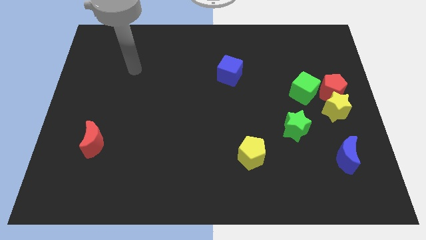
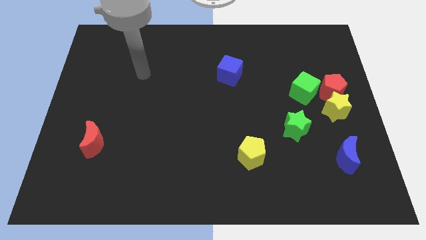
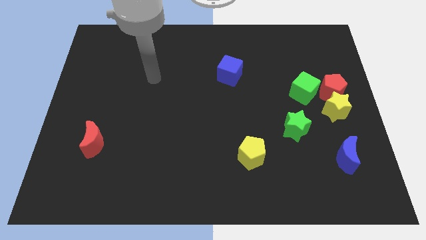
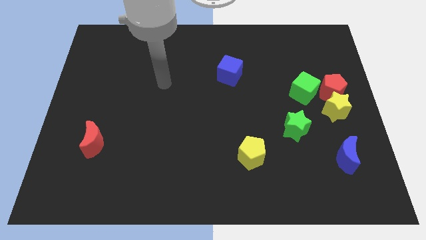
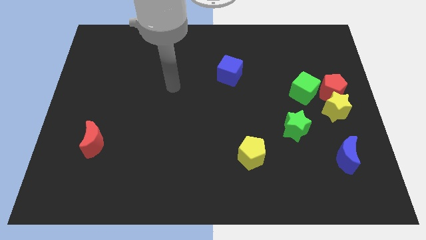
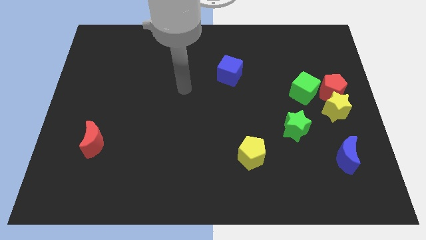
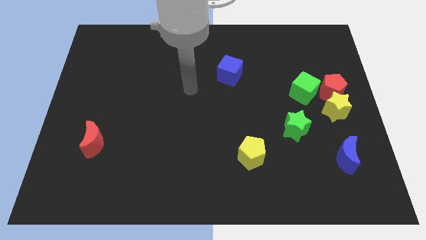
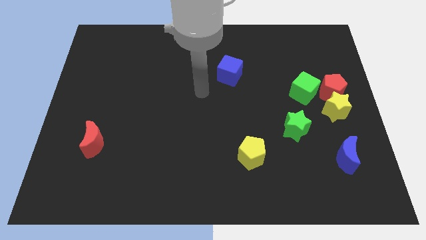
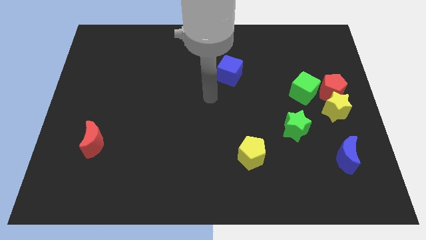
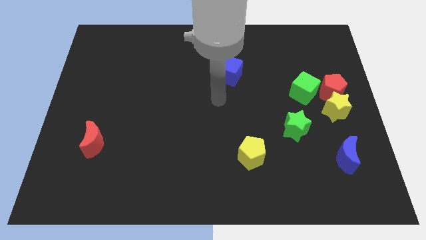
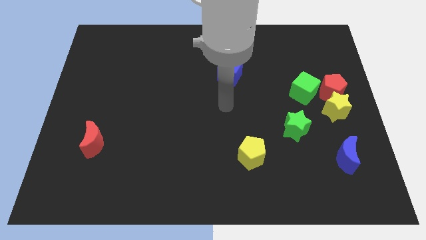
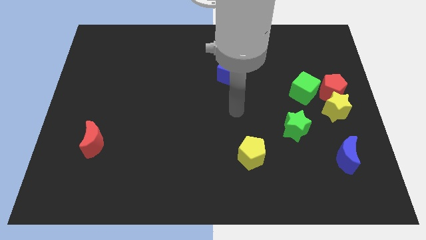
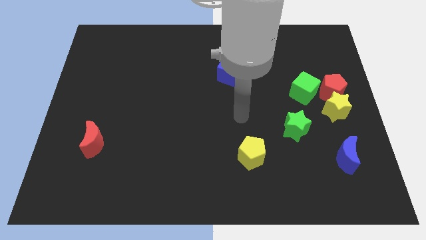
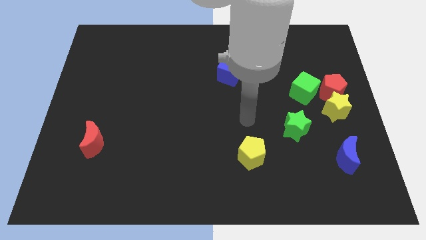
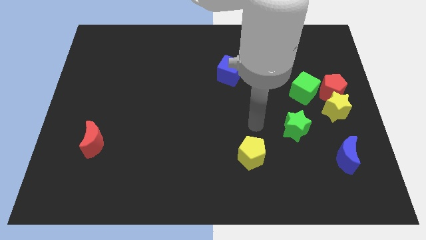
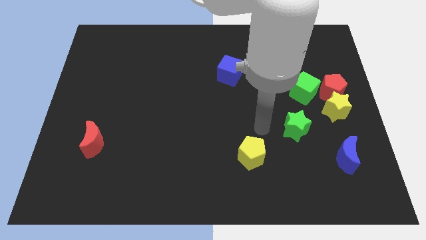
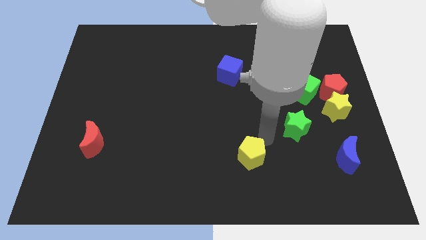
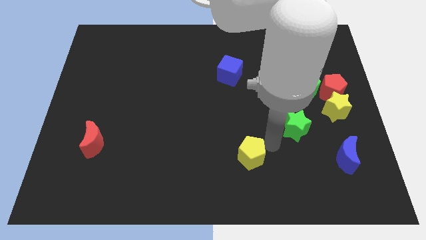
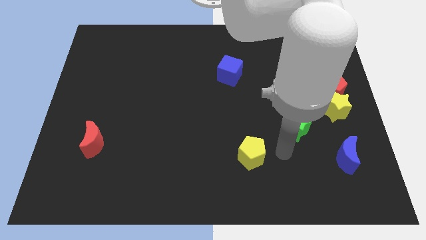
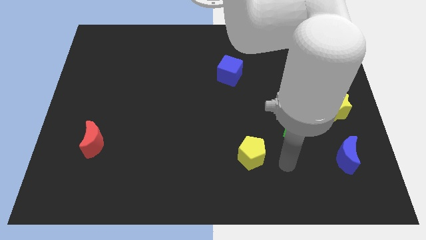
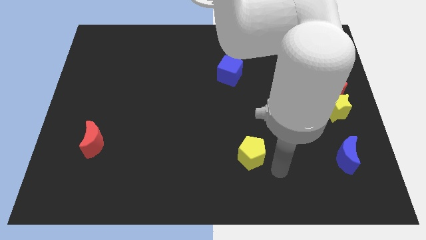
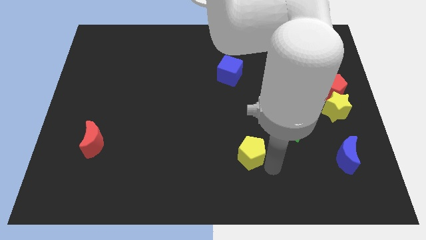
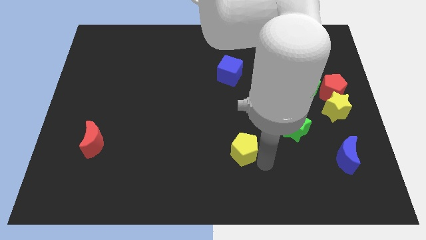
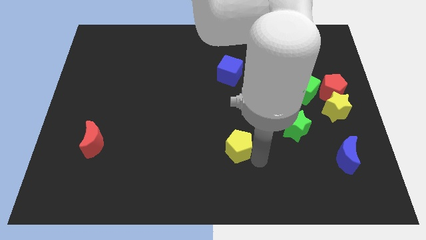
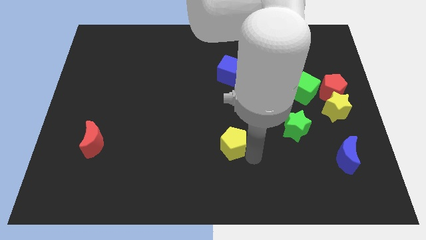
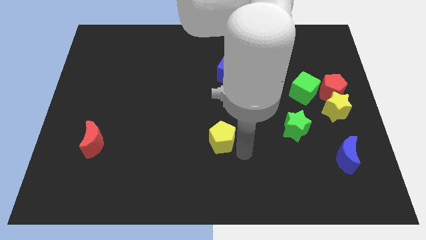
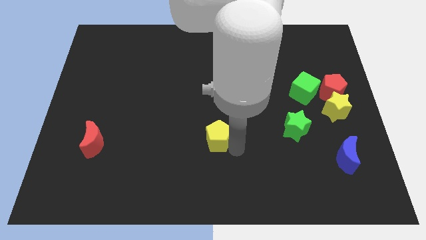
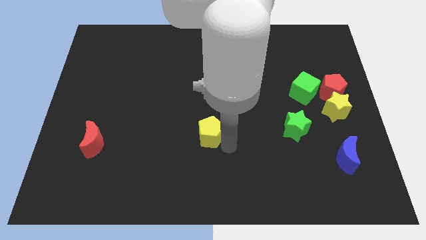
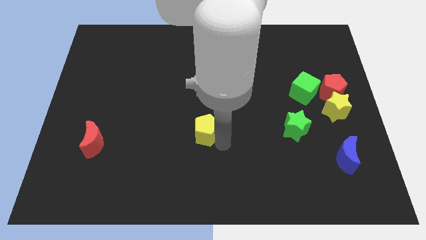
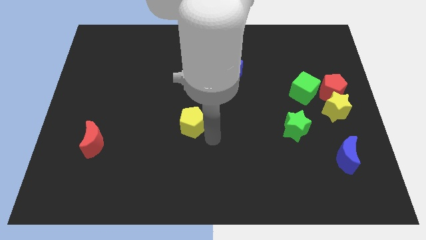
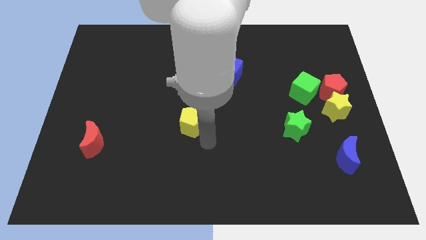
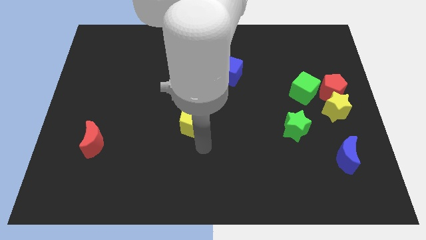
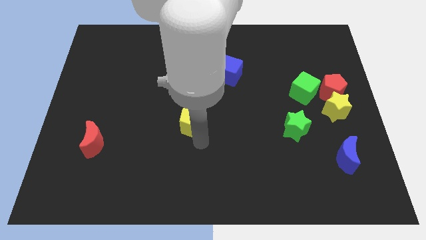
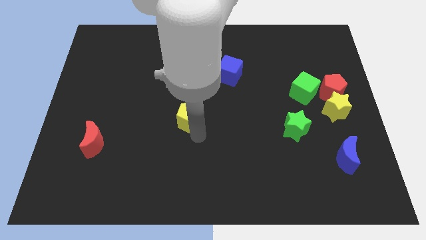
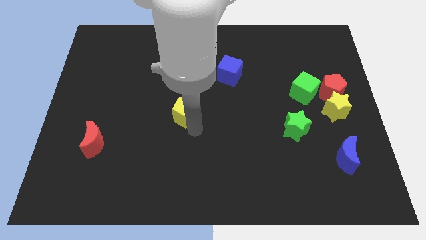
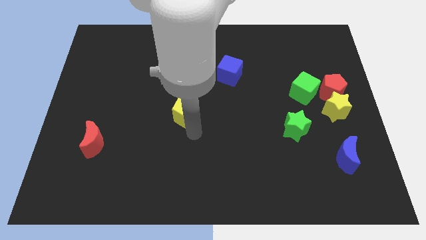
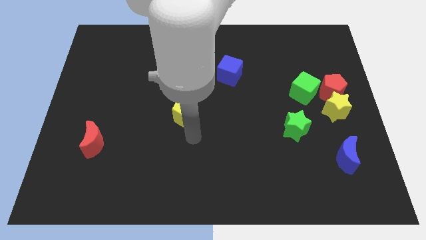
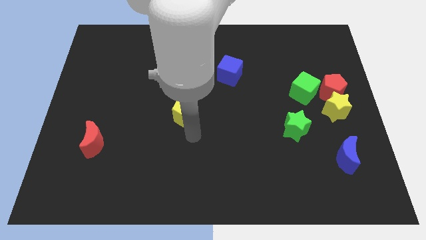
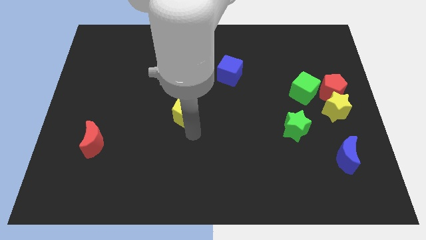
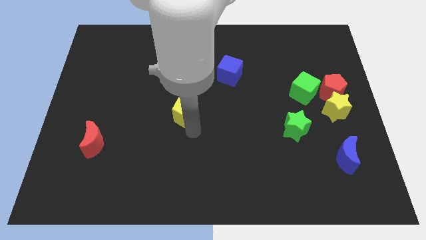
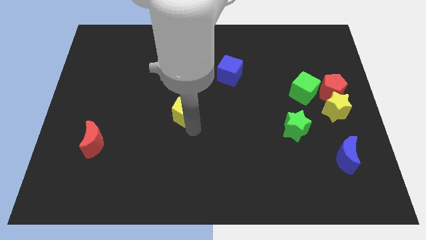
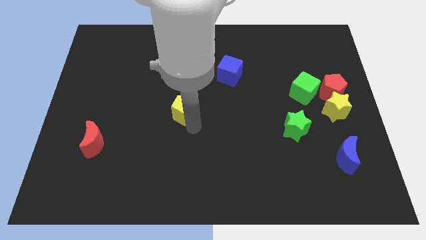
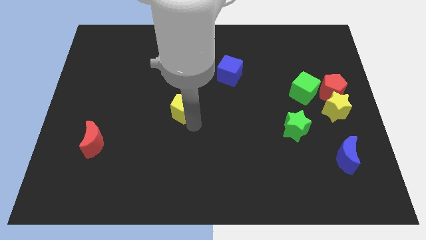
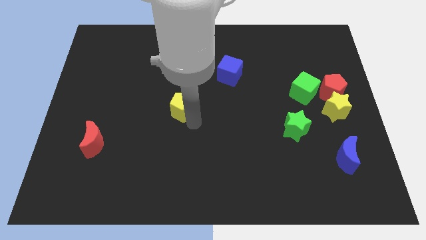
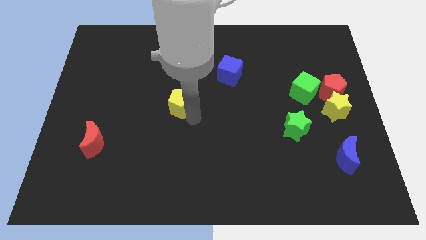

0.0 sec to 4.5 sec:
slide the yellow pentagon upwards and to the left

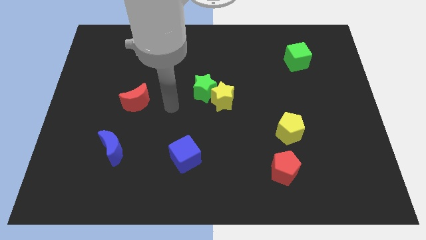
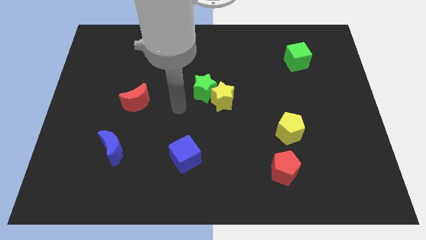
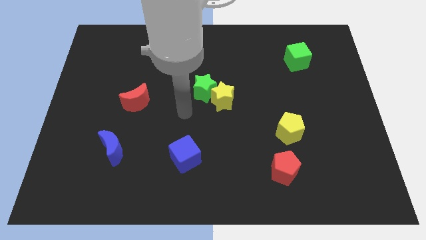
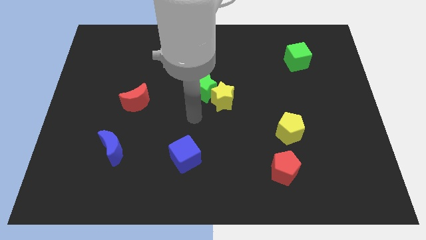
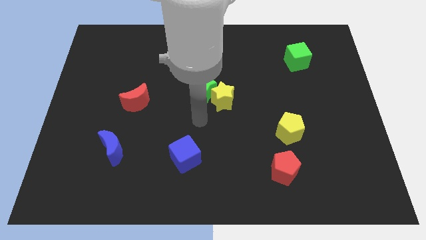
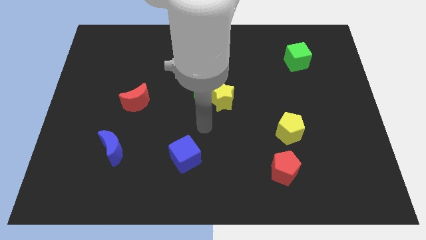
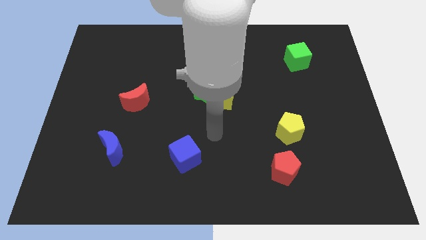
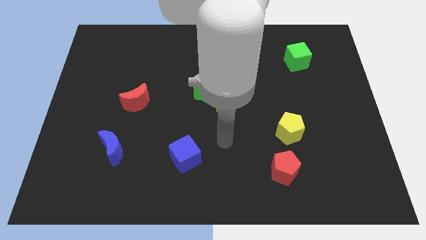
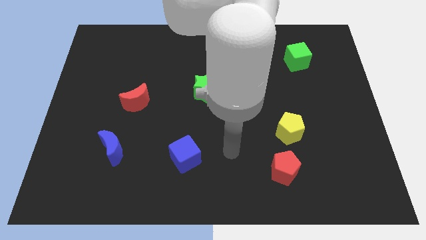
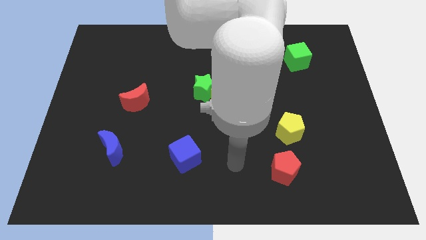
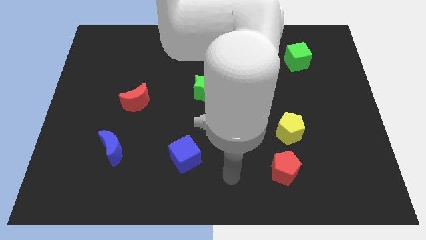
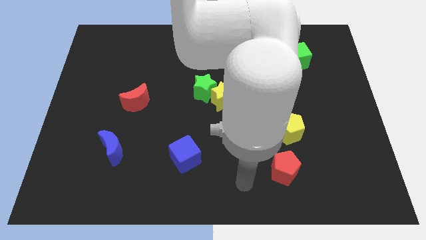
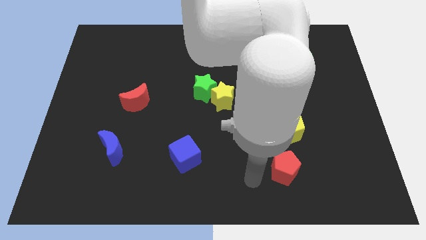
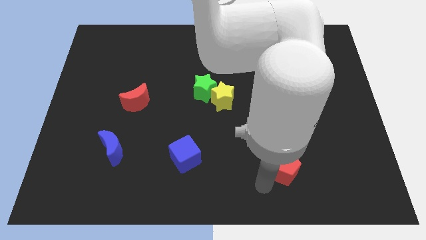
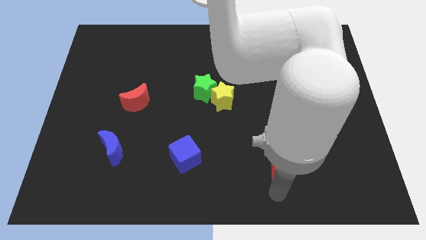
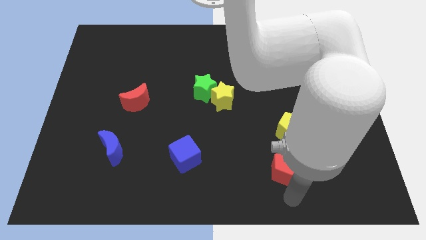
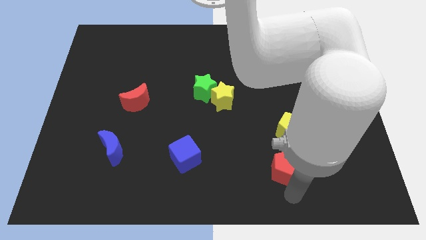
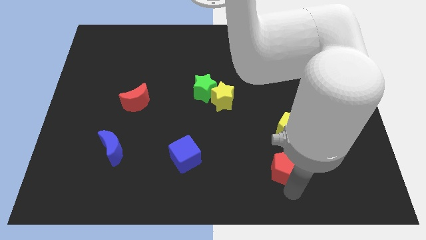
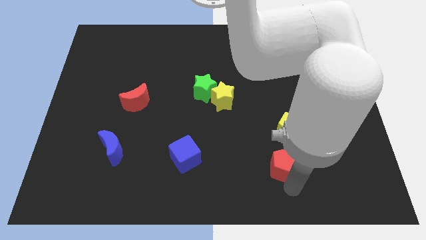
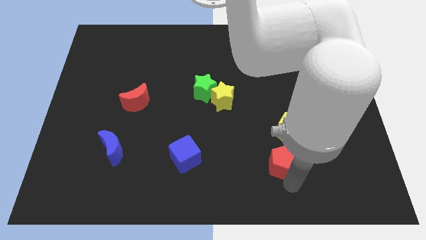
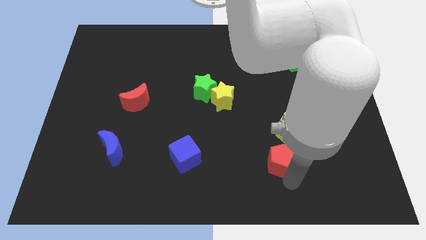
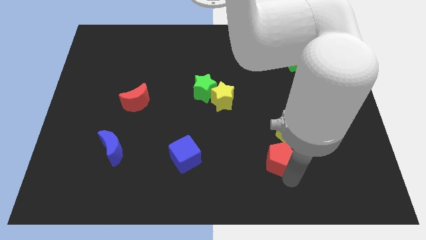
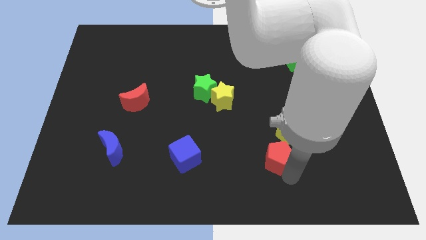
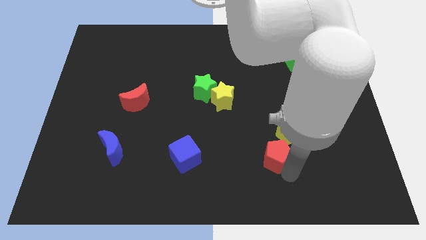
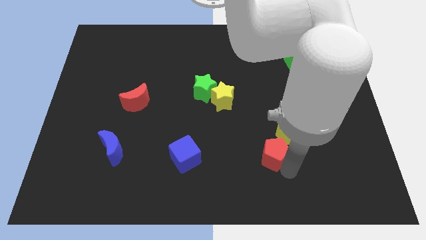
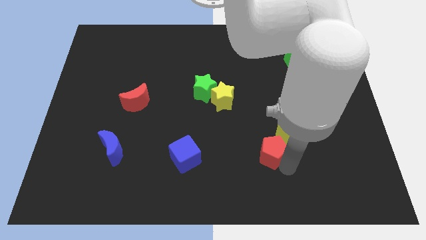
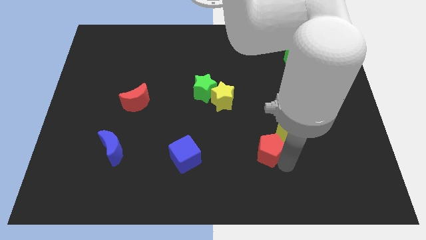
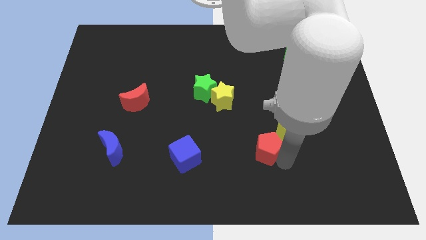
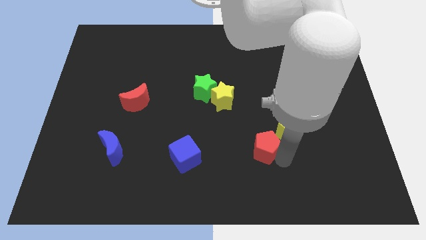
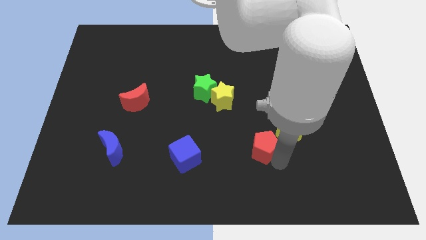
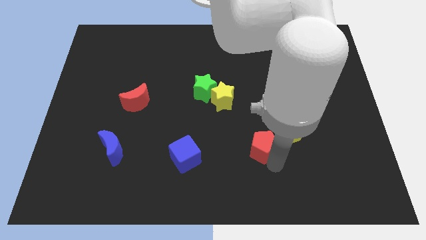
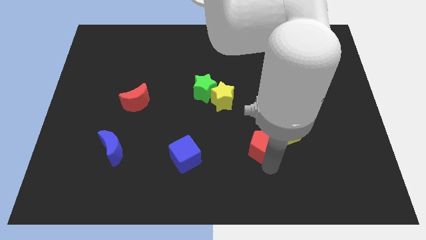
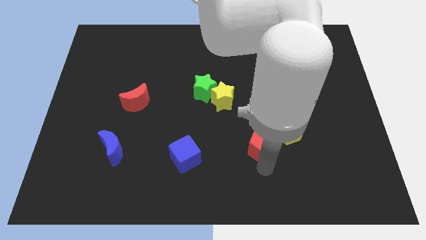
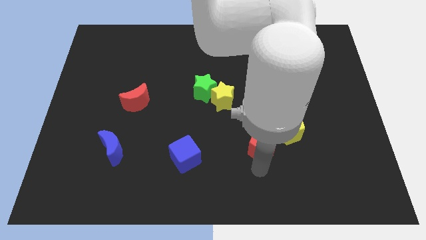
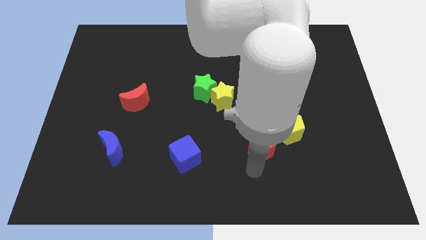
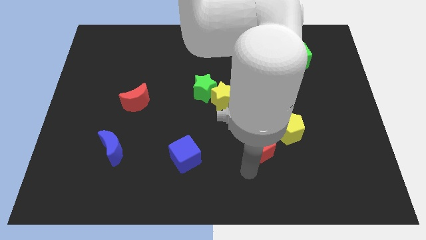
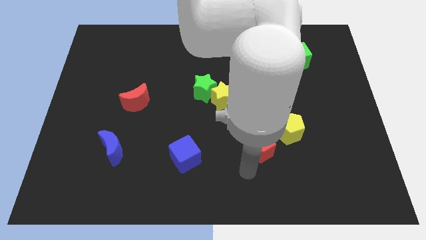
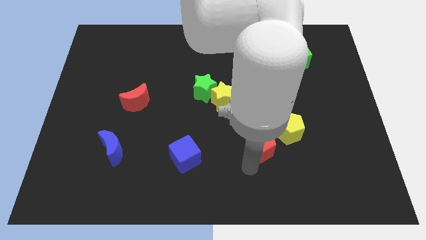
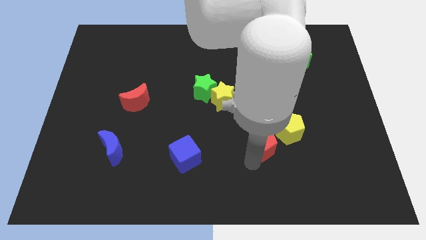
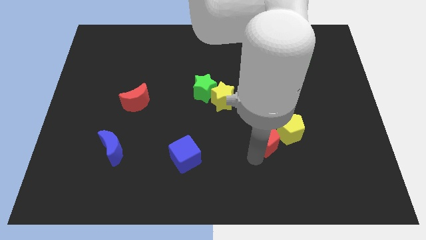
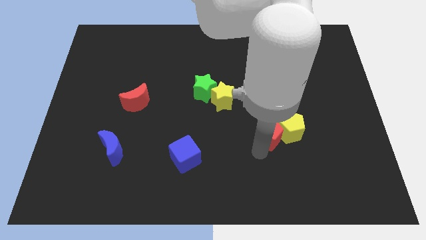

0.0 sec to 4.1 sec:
slide the red pentagon somewhat upwards

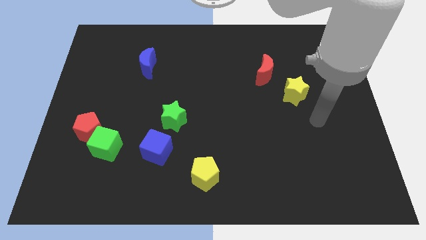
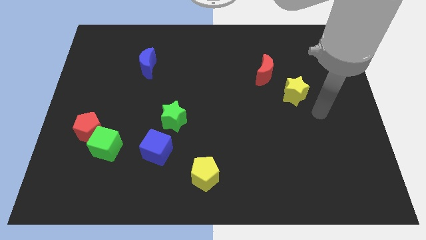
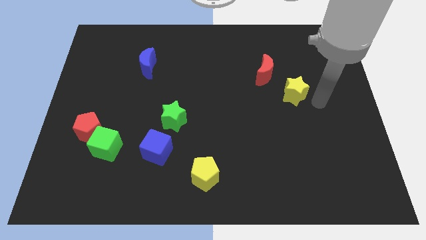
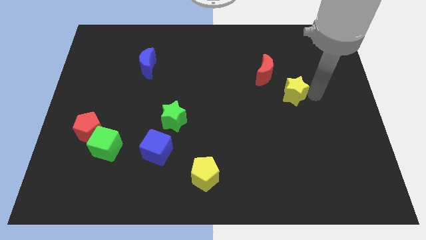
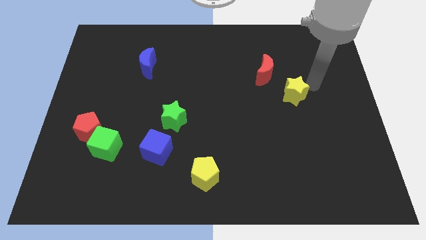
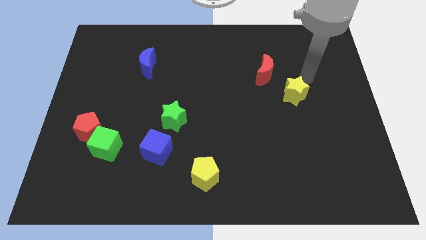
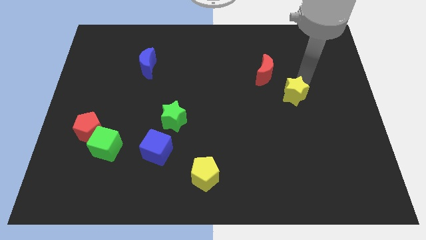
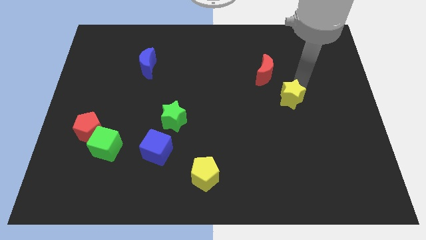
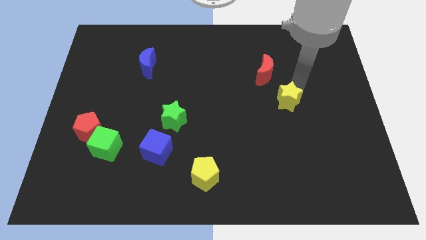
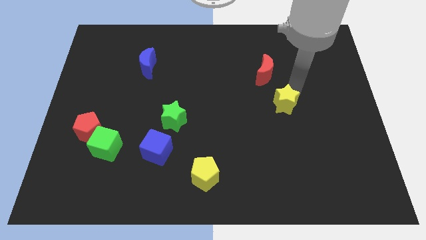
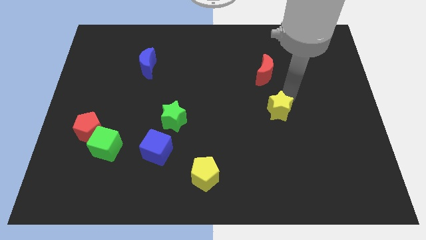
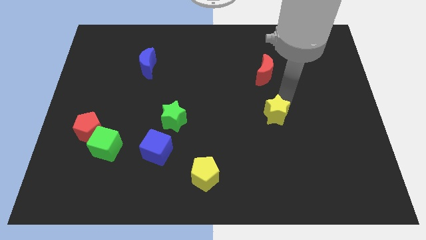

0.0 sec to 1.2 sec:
slightly move the yellow star diagonally downwards and left
